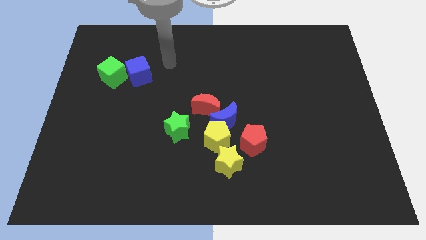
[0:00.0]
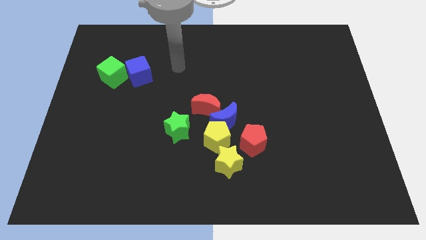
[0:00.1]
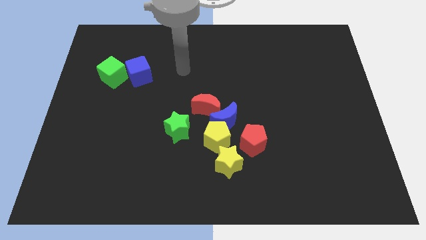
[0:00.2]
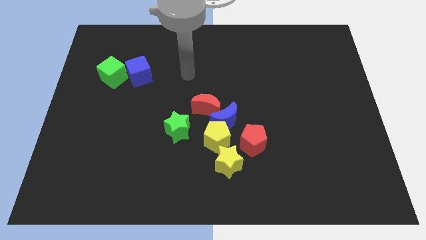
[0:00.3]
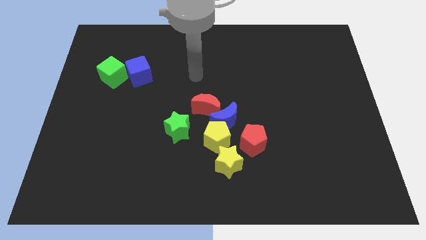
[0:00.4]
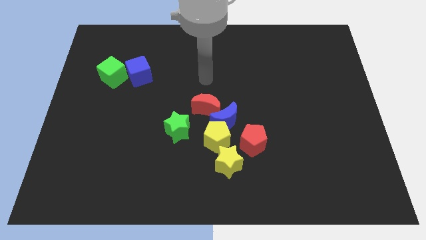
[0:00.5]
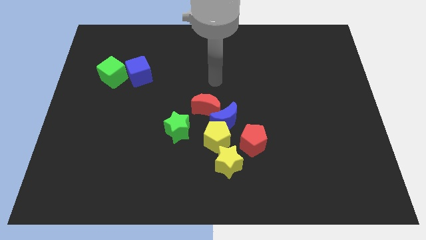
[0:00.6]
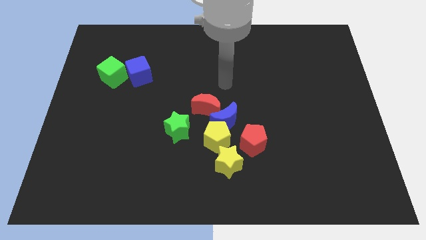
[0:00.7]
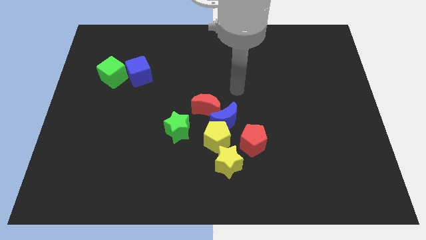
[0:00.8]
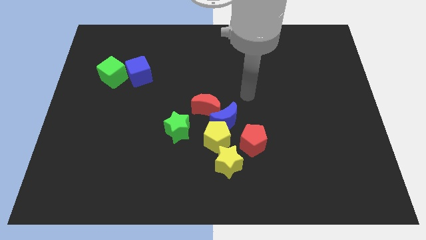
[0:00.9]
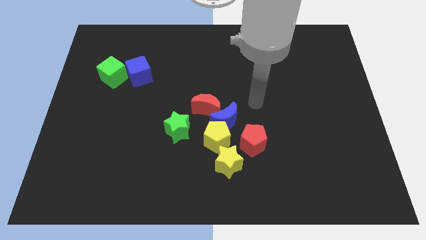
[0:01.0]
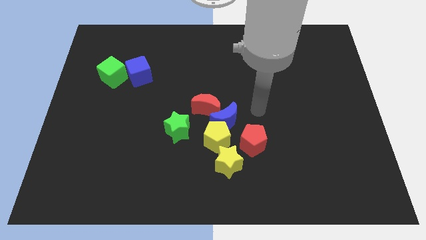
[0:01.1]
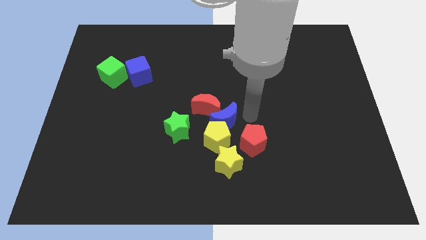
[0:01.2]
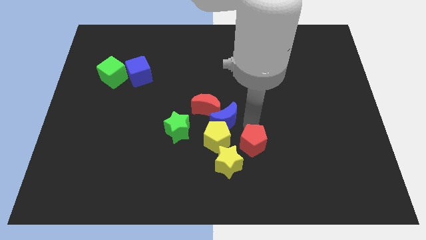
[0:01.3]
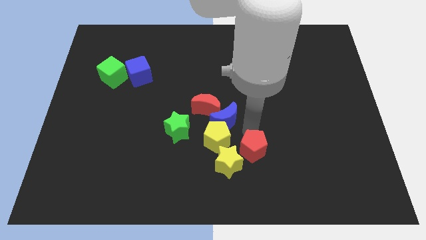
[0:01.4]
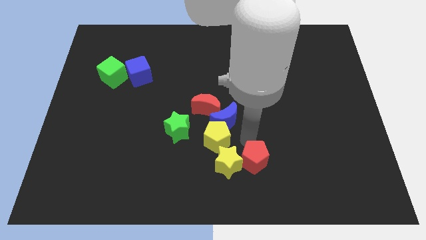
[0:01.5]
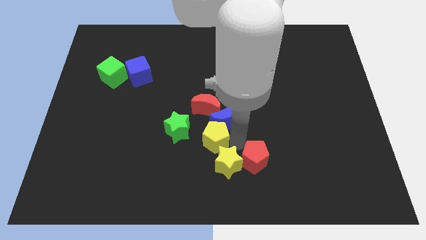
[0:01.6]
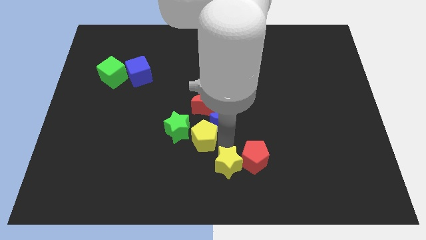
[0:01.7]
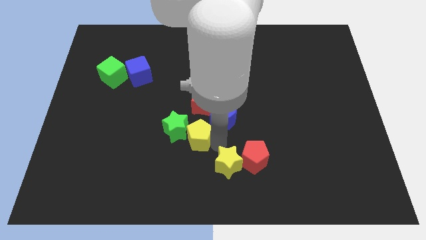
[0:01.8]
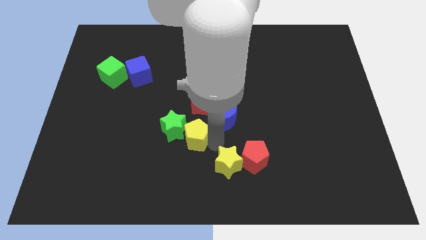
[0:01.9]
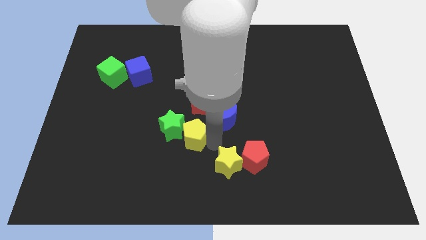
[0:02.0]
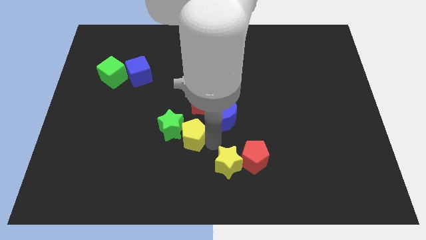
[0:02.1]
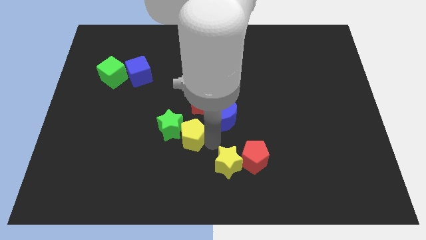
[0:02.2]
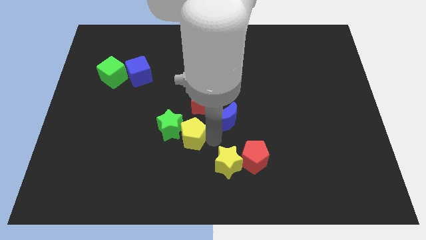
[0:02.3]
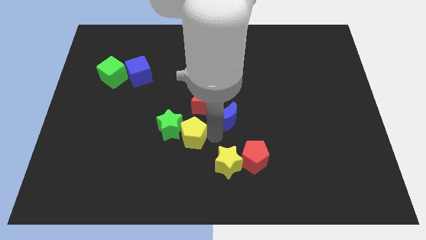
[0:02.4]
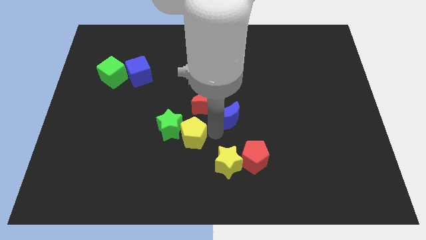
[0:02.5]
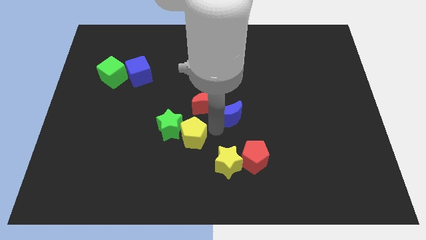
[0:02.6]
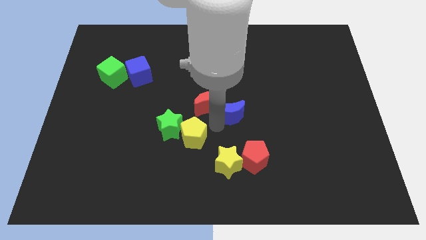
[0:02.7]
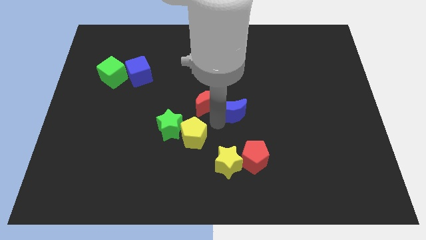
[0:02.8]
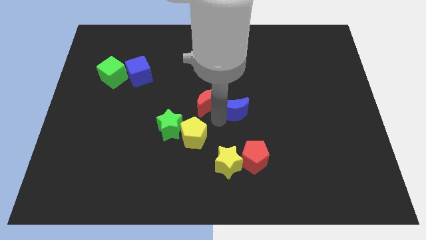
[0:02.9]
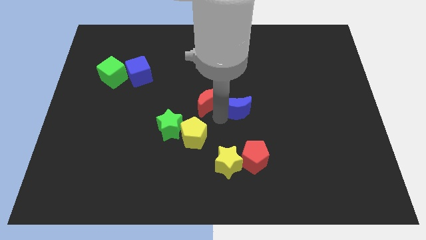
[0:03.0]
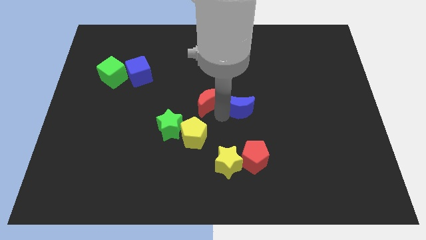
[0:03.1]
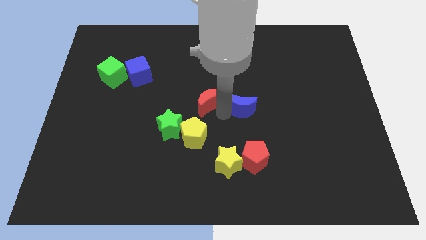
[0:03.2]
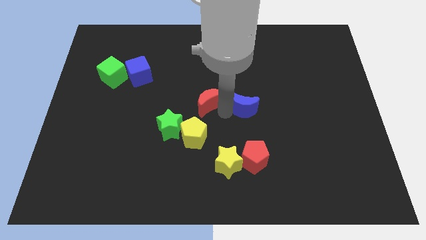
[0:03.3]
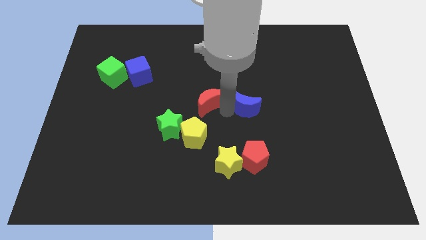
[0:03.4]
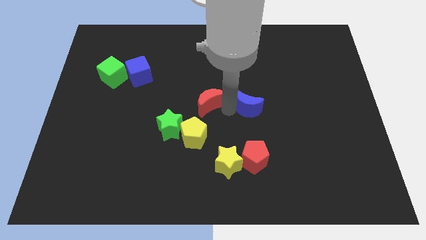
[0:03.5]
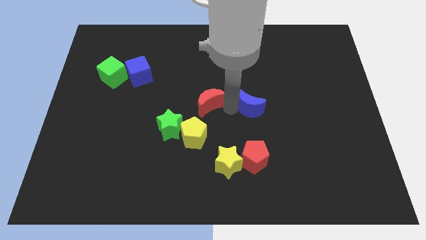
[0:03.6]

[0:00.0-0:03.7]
move the blue moon away from the yellow pentagon, red moon, and red pentagon

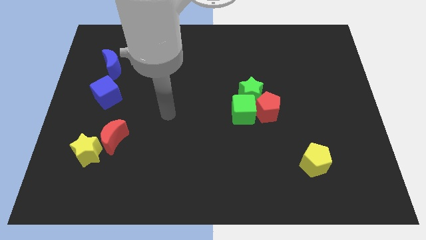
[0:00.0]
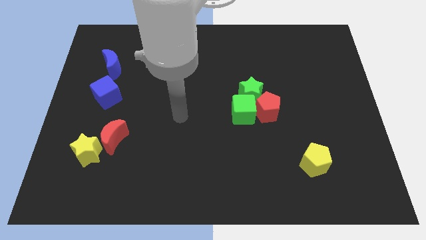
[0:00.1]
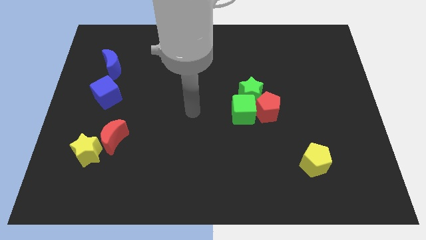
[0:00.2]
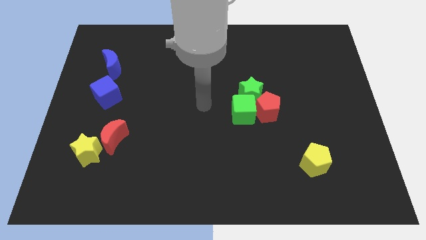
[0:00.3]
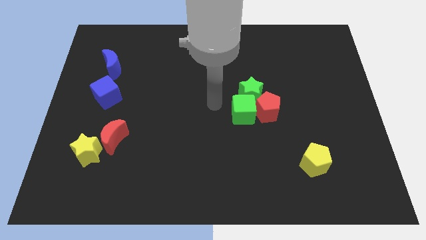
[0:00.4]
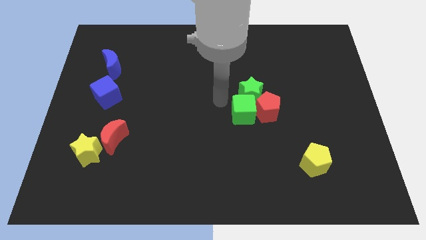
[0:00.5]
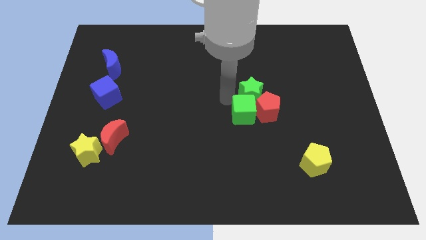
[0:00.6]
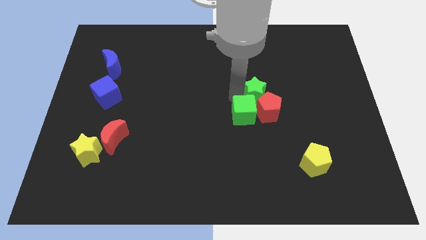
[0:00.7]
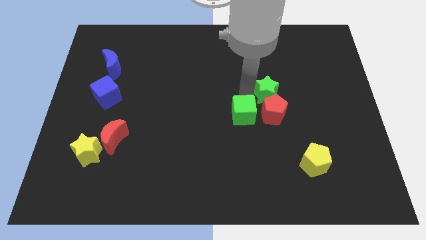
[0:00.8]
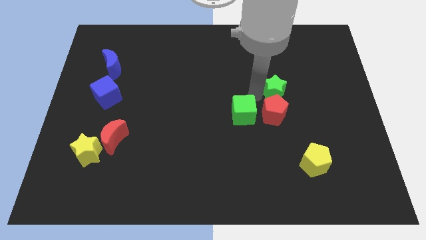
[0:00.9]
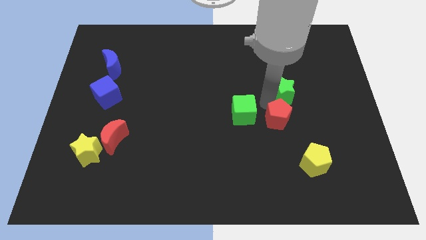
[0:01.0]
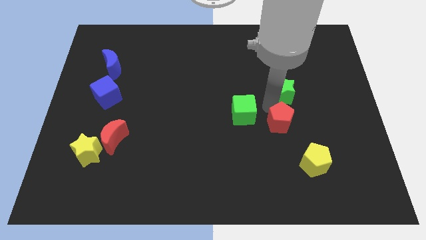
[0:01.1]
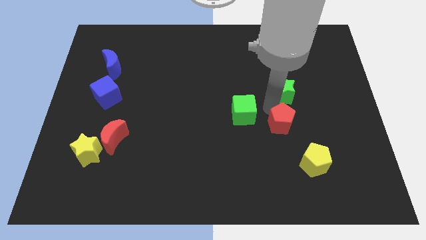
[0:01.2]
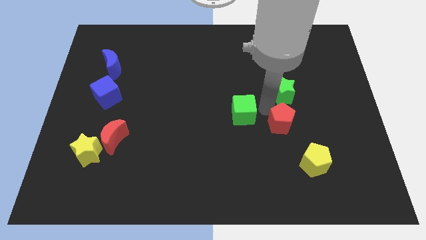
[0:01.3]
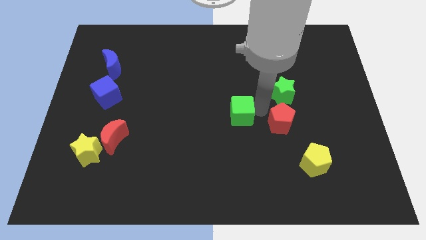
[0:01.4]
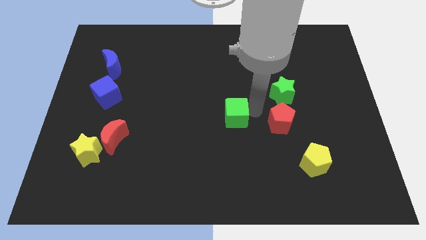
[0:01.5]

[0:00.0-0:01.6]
move the green cube away from the green star and red pentagon

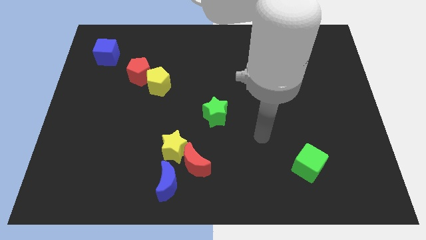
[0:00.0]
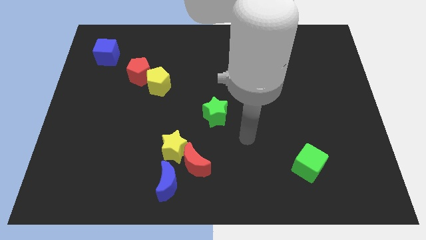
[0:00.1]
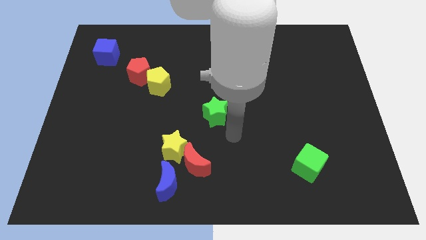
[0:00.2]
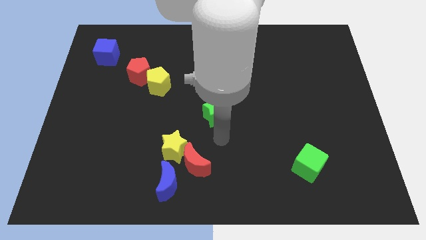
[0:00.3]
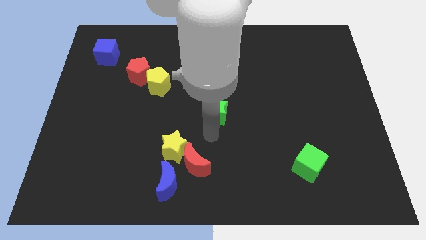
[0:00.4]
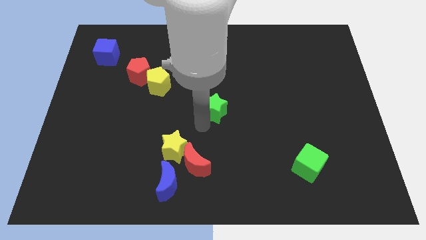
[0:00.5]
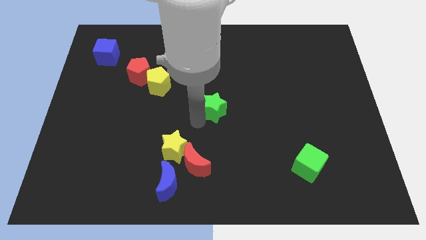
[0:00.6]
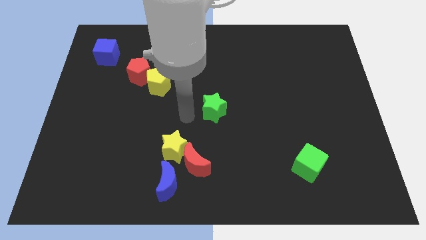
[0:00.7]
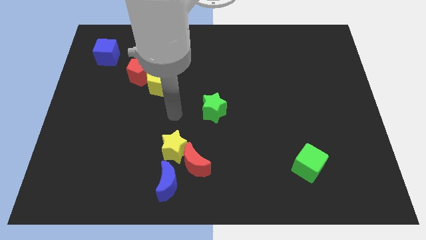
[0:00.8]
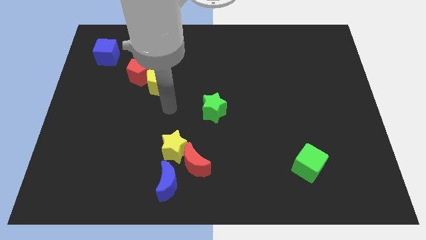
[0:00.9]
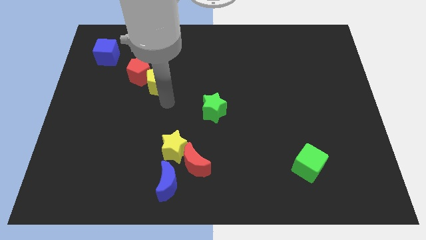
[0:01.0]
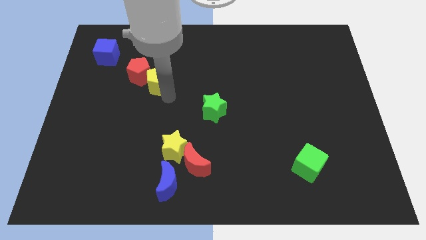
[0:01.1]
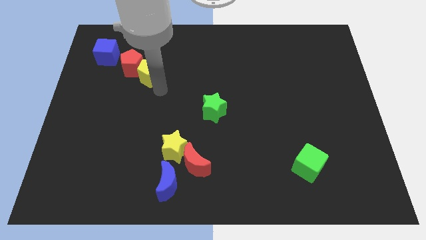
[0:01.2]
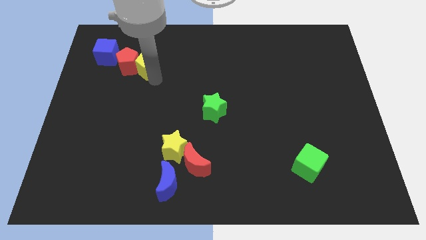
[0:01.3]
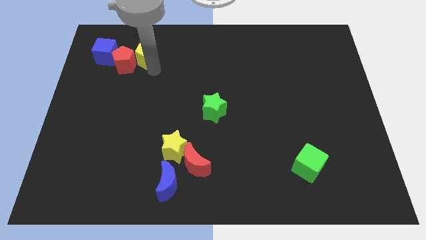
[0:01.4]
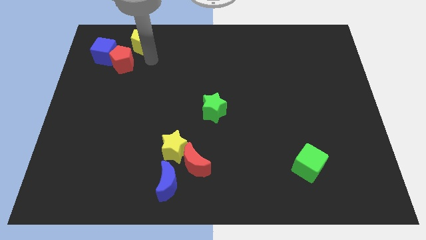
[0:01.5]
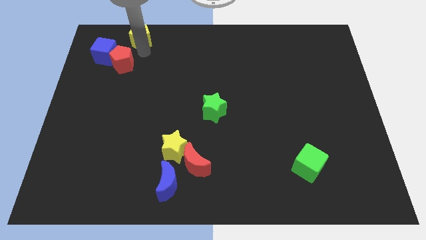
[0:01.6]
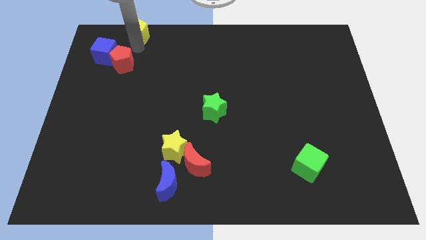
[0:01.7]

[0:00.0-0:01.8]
separate the red pentagon from the yellow pentagon

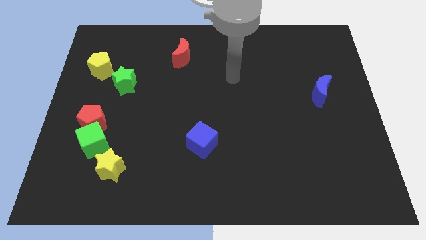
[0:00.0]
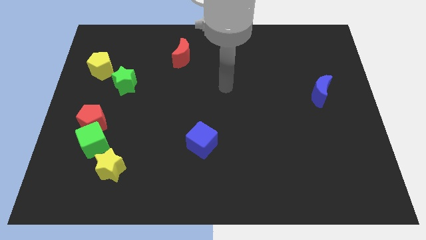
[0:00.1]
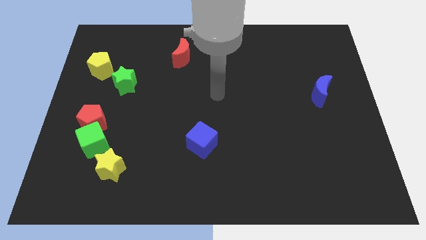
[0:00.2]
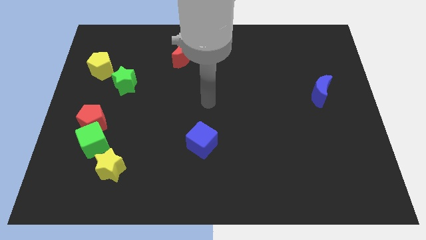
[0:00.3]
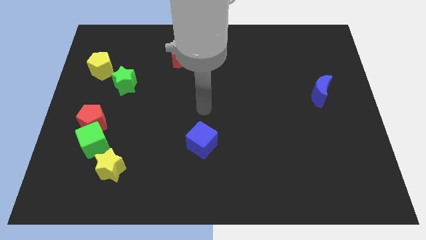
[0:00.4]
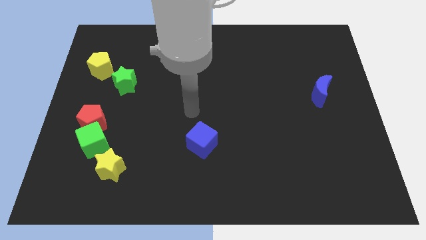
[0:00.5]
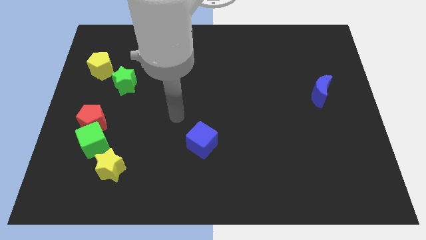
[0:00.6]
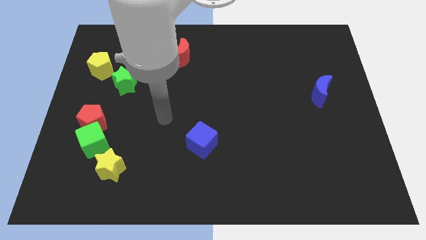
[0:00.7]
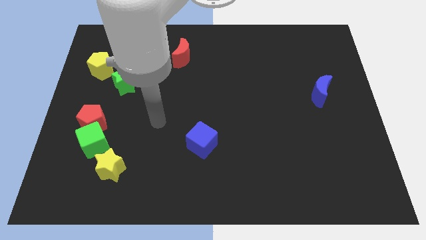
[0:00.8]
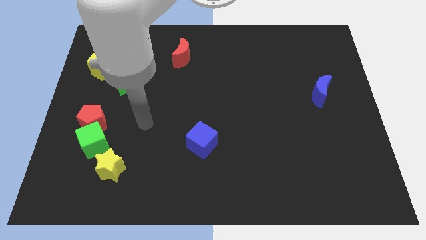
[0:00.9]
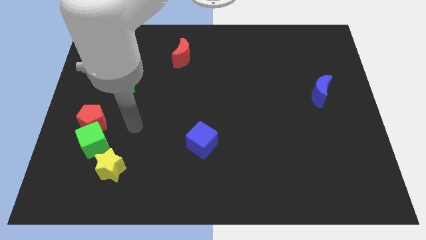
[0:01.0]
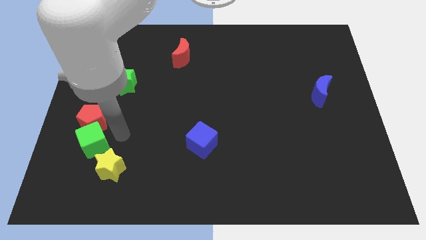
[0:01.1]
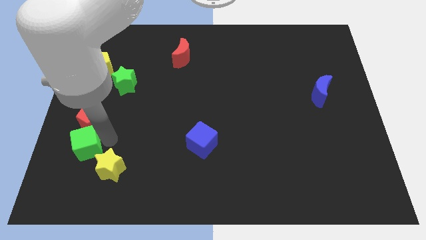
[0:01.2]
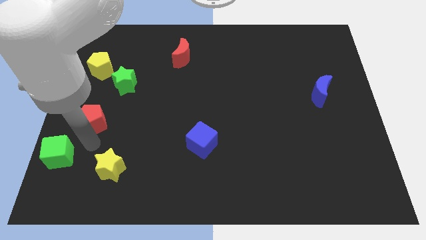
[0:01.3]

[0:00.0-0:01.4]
pull the red pentagon apart from the green cube

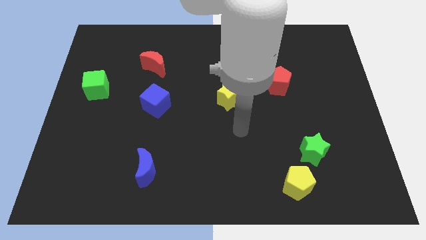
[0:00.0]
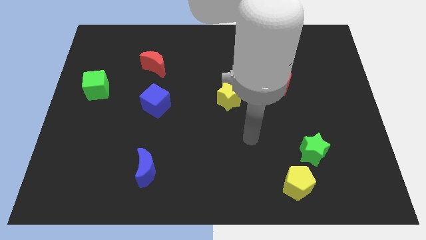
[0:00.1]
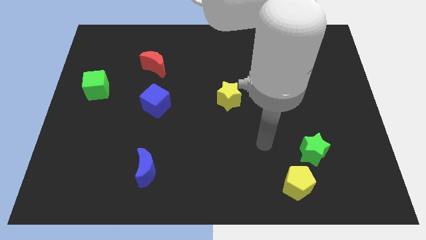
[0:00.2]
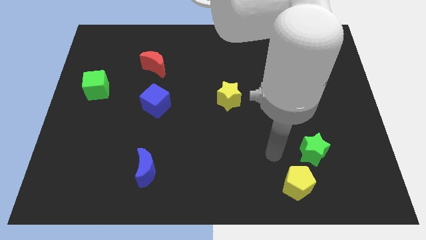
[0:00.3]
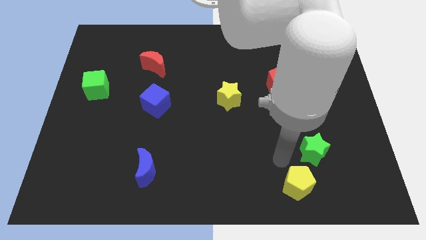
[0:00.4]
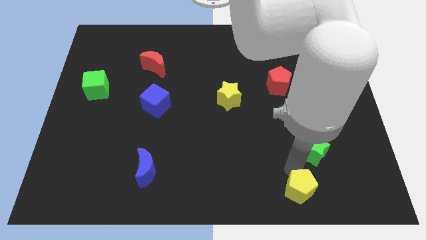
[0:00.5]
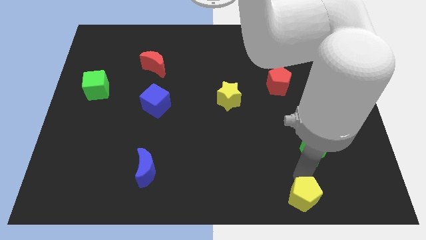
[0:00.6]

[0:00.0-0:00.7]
pull the green star apart from the yellow pentagon
